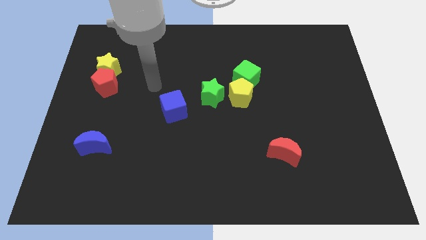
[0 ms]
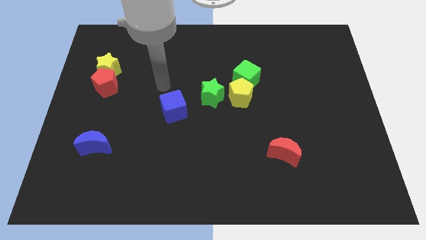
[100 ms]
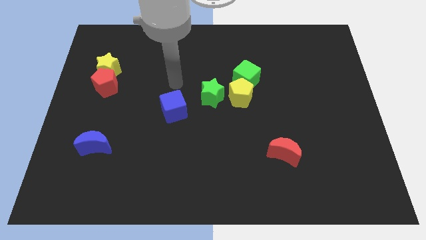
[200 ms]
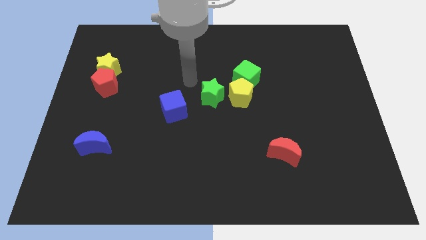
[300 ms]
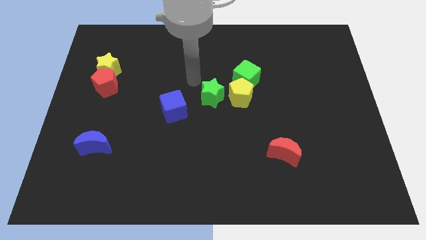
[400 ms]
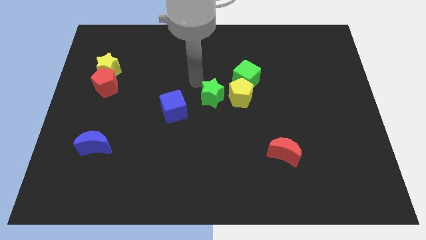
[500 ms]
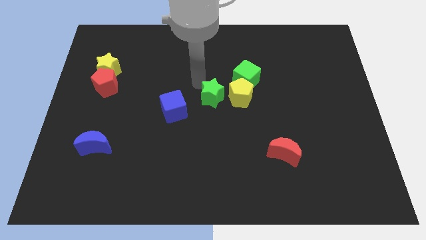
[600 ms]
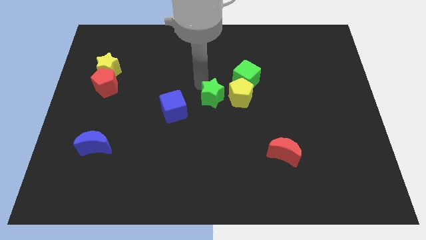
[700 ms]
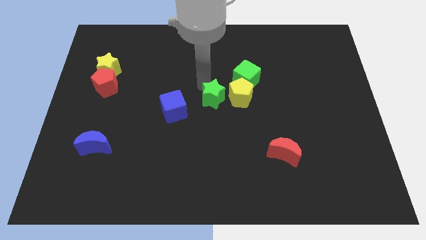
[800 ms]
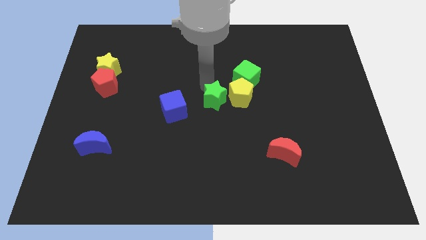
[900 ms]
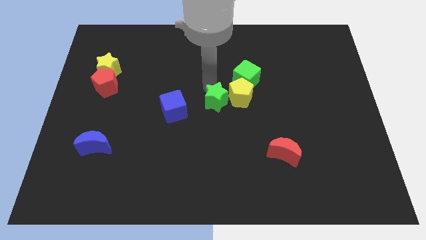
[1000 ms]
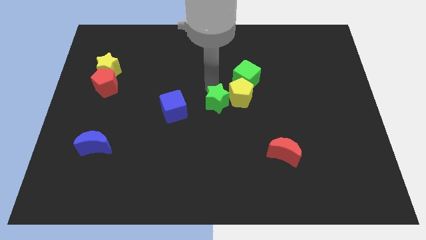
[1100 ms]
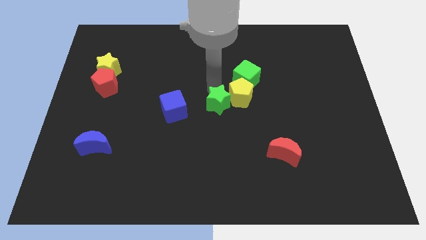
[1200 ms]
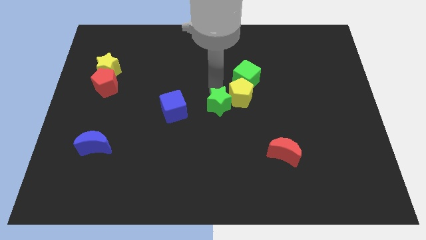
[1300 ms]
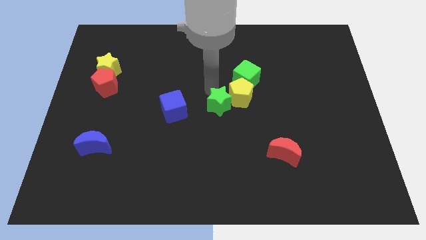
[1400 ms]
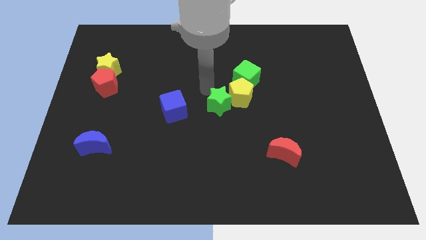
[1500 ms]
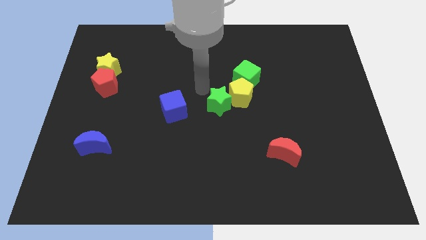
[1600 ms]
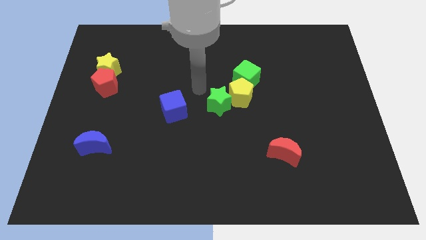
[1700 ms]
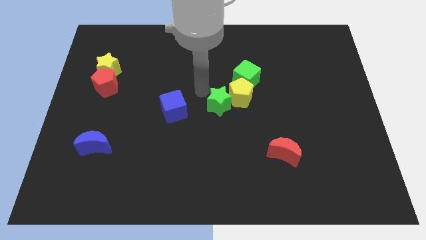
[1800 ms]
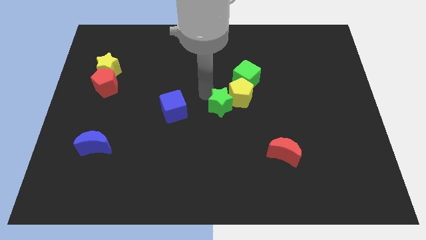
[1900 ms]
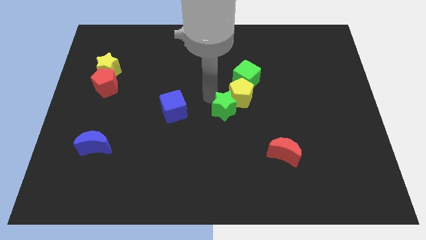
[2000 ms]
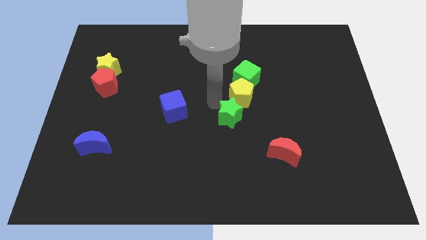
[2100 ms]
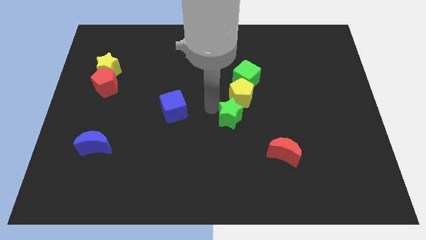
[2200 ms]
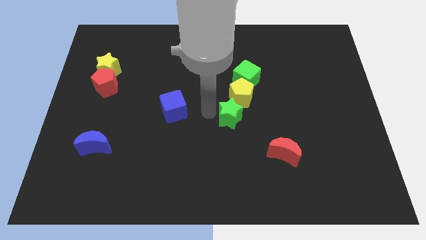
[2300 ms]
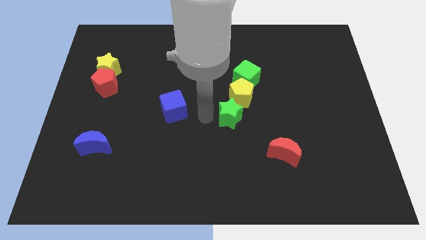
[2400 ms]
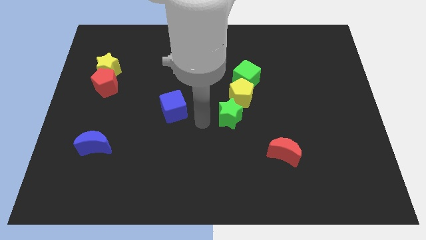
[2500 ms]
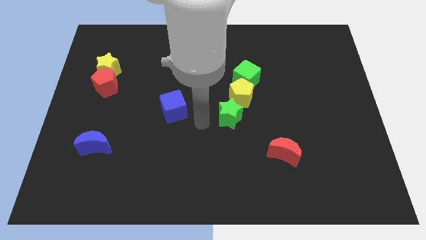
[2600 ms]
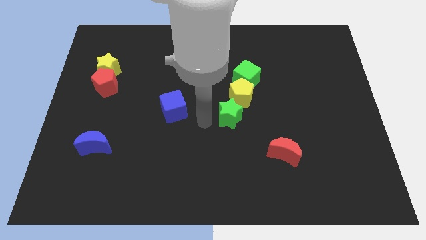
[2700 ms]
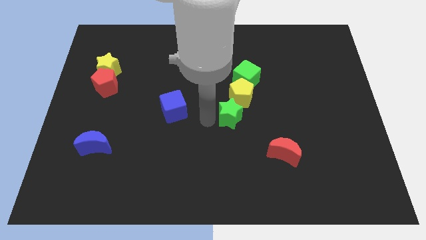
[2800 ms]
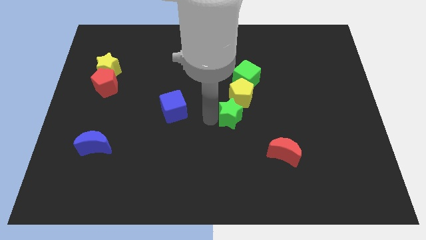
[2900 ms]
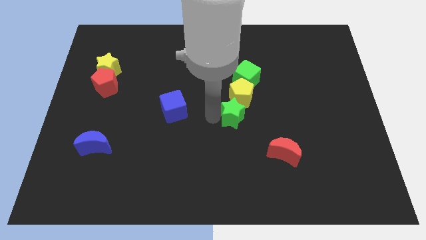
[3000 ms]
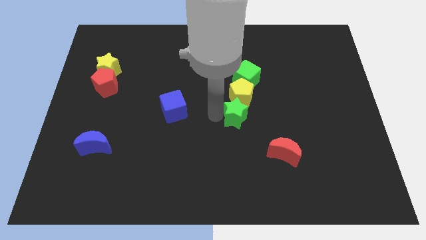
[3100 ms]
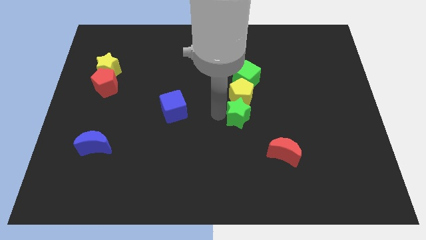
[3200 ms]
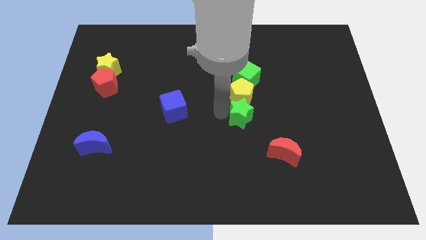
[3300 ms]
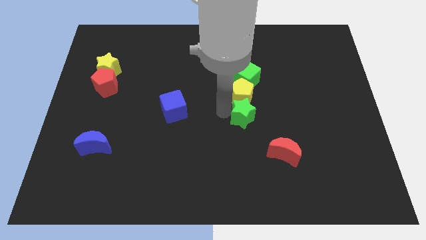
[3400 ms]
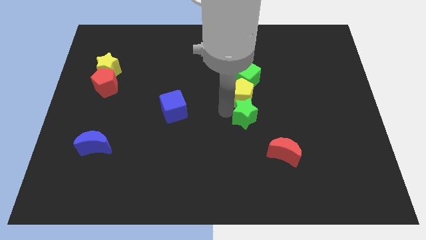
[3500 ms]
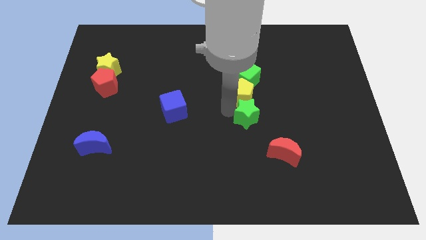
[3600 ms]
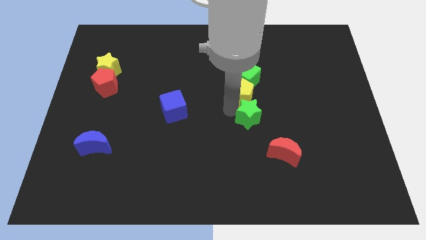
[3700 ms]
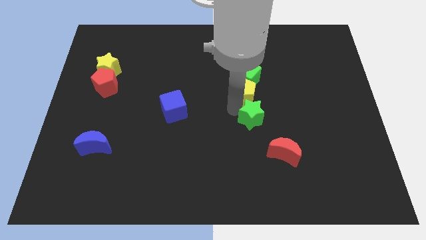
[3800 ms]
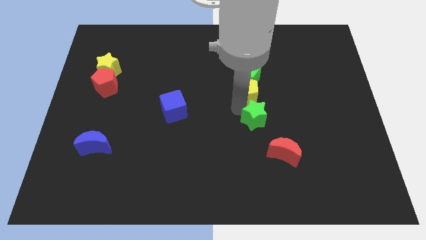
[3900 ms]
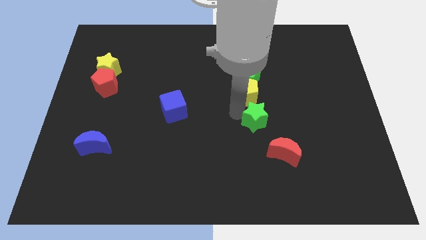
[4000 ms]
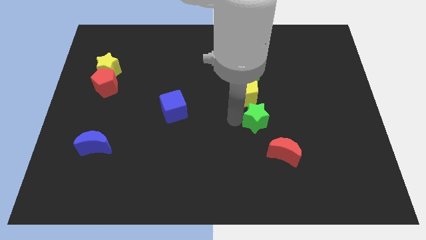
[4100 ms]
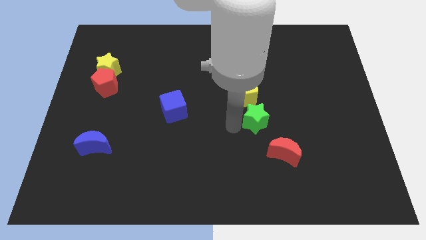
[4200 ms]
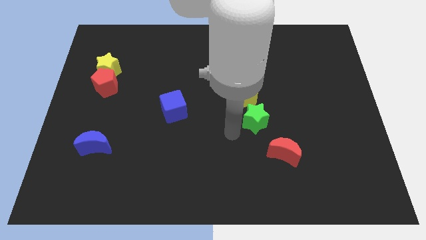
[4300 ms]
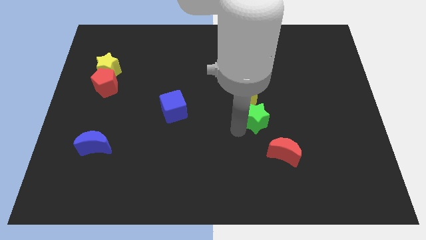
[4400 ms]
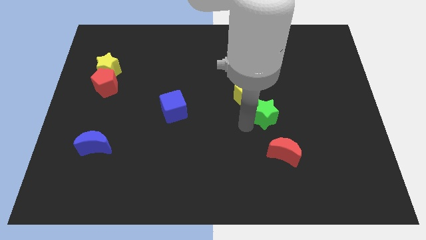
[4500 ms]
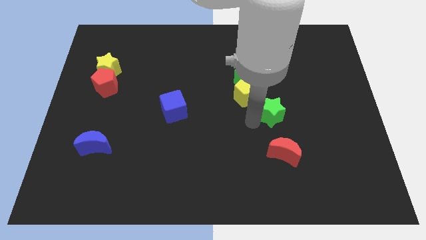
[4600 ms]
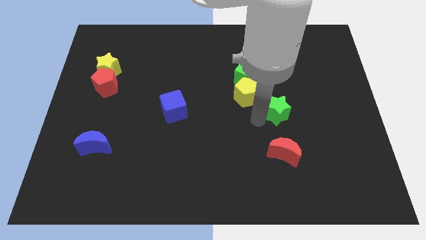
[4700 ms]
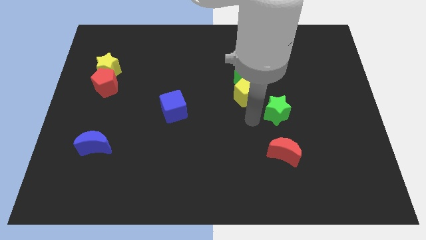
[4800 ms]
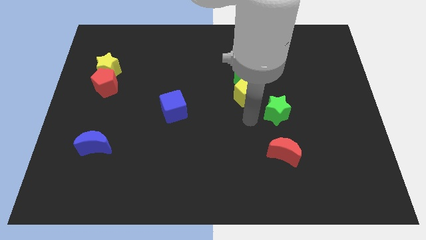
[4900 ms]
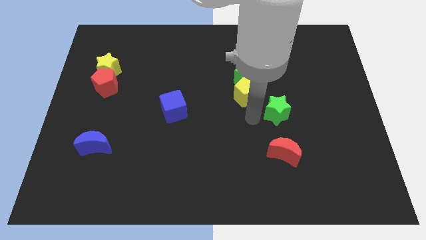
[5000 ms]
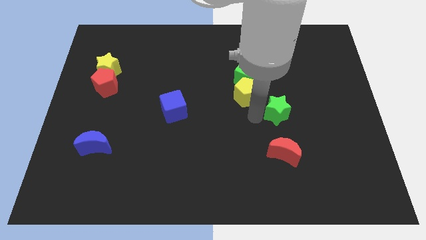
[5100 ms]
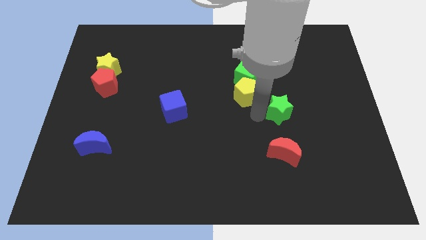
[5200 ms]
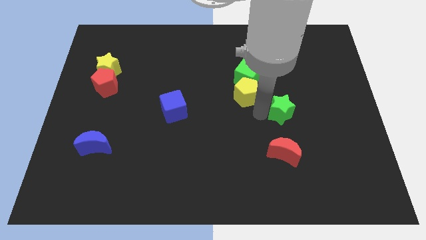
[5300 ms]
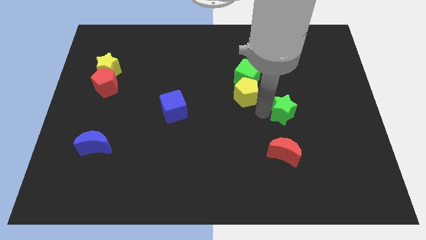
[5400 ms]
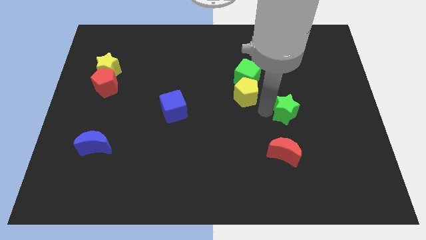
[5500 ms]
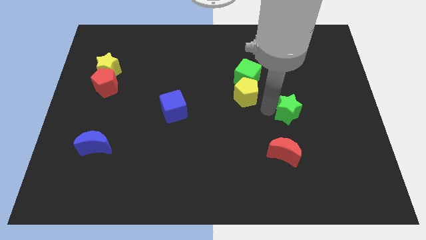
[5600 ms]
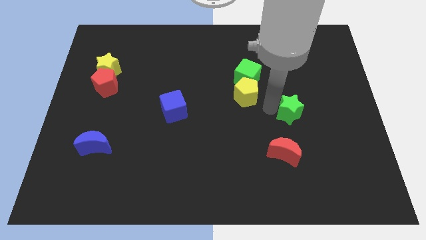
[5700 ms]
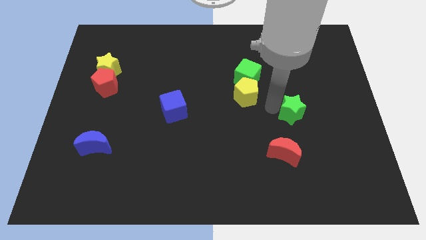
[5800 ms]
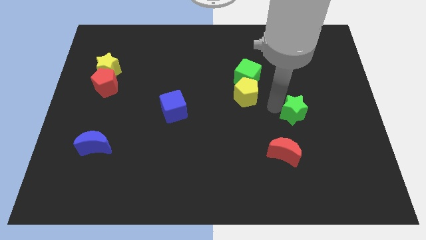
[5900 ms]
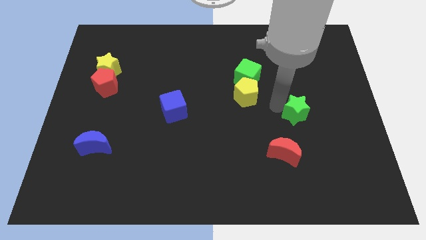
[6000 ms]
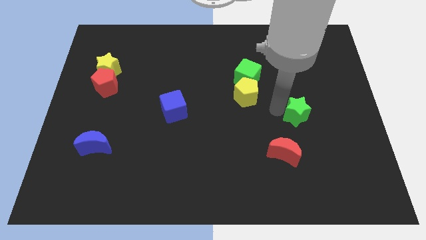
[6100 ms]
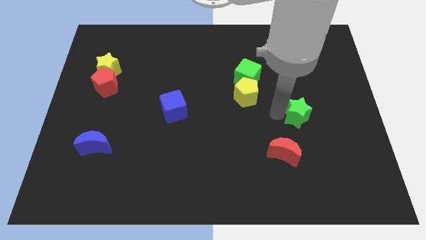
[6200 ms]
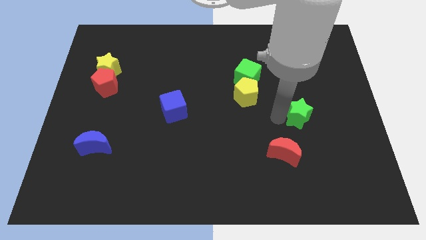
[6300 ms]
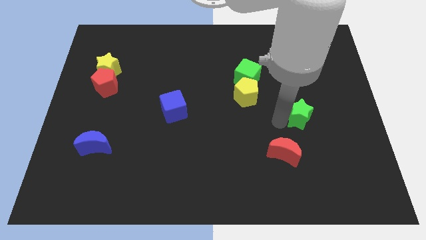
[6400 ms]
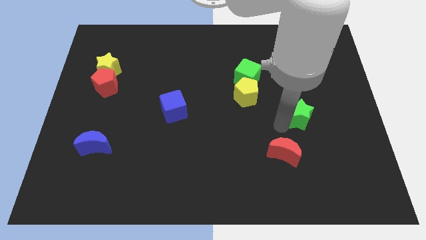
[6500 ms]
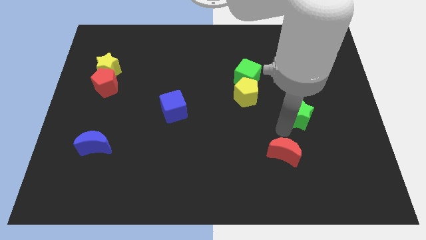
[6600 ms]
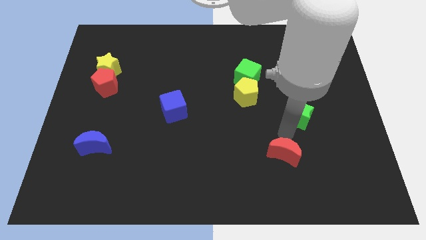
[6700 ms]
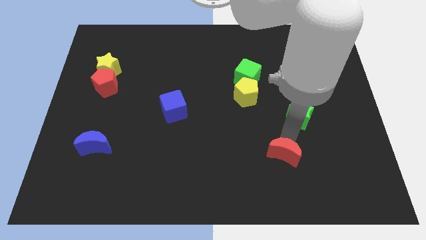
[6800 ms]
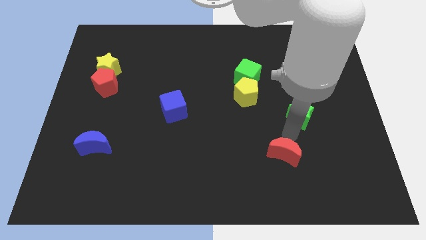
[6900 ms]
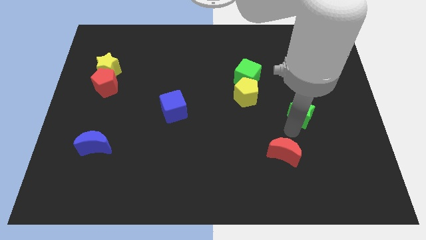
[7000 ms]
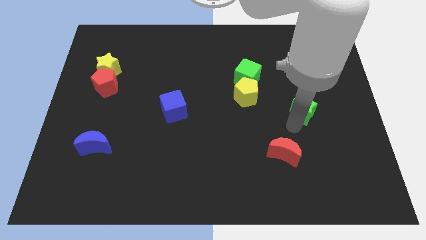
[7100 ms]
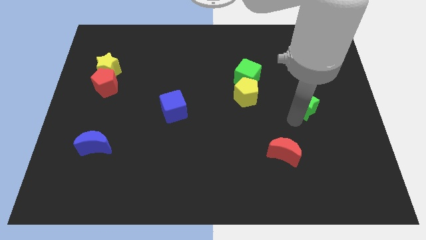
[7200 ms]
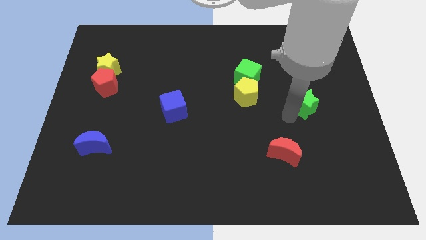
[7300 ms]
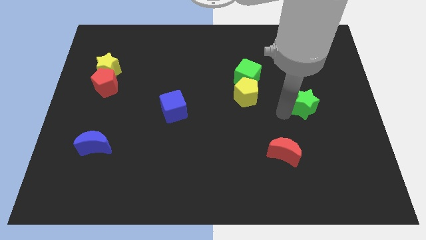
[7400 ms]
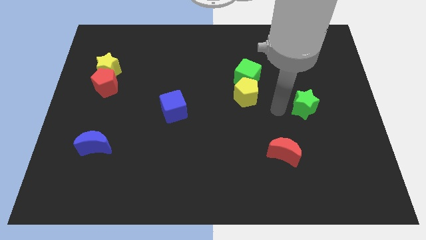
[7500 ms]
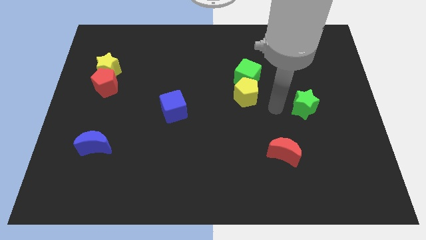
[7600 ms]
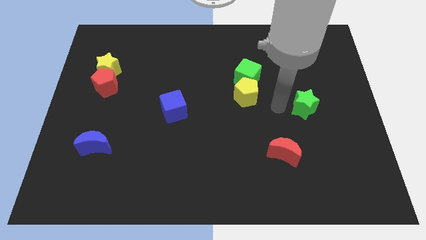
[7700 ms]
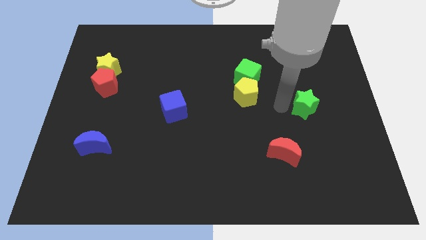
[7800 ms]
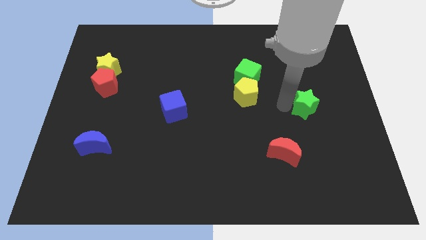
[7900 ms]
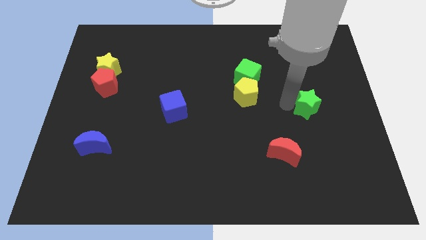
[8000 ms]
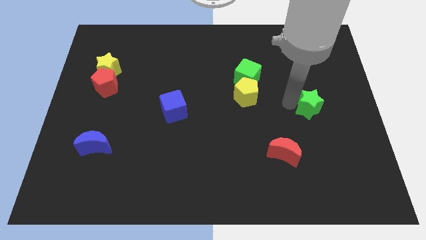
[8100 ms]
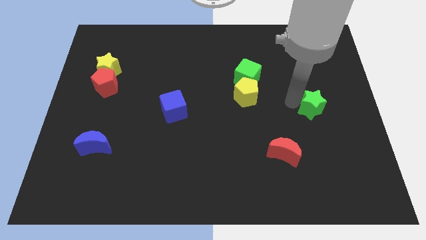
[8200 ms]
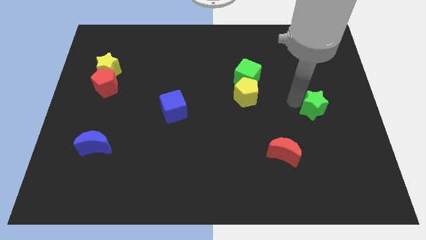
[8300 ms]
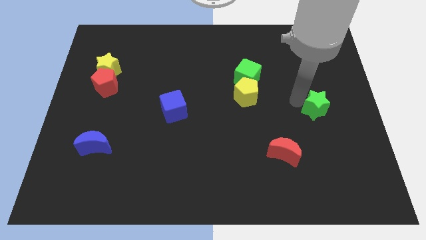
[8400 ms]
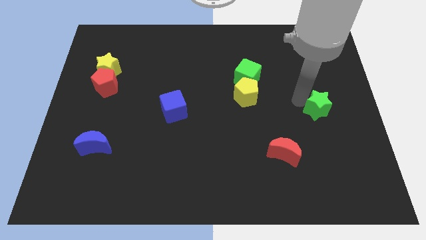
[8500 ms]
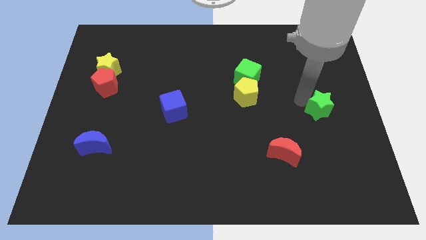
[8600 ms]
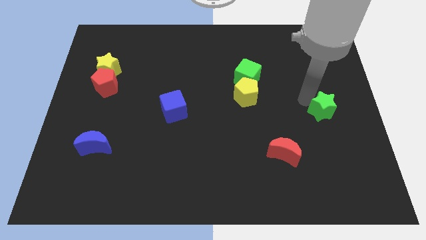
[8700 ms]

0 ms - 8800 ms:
move the green star to the right side of the board
